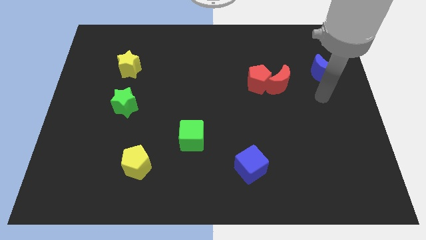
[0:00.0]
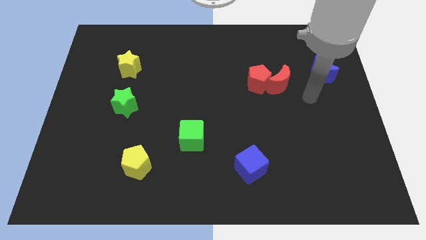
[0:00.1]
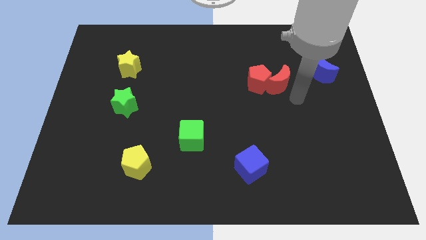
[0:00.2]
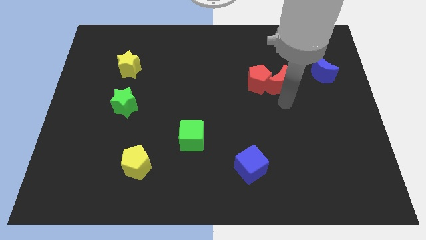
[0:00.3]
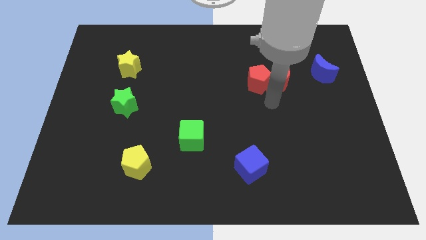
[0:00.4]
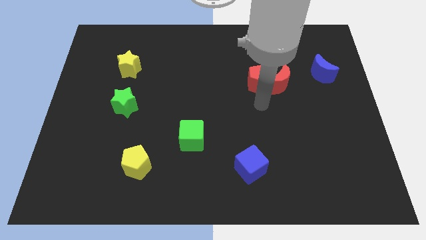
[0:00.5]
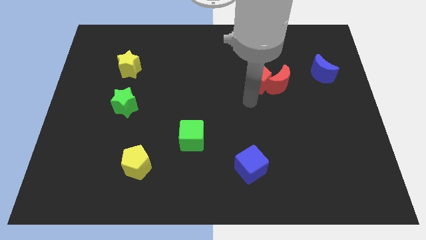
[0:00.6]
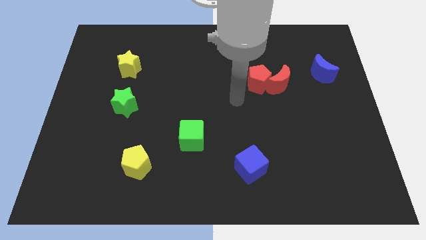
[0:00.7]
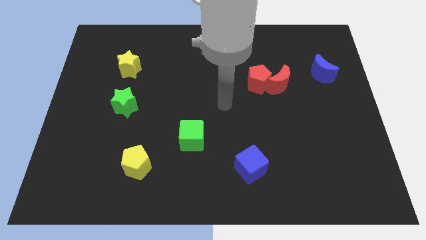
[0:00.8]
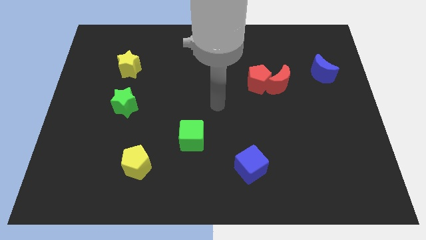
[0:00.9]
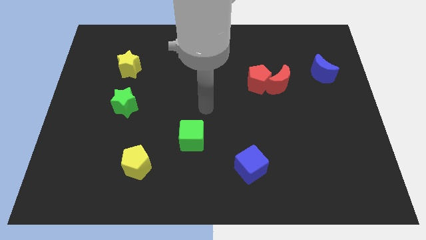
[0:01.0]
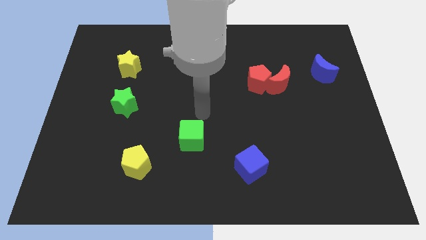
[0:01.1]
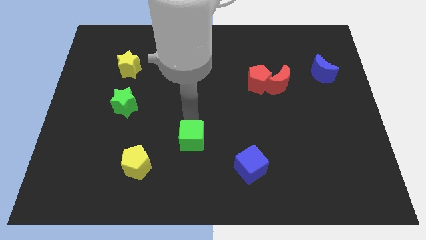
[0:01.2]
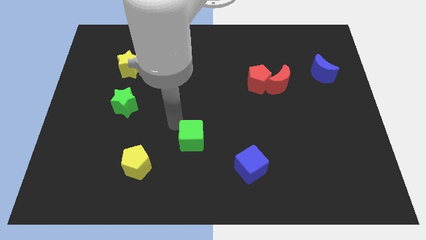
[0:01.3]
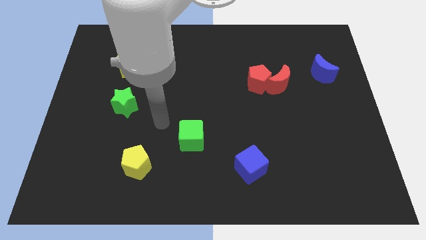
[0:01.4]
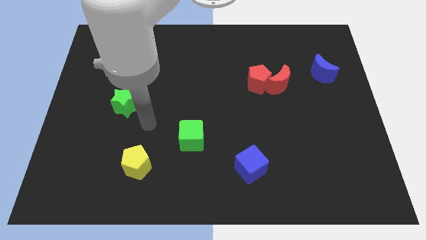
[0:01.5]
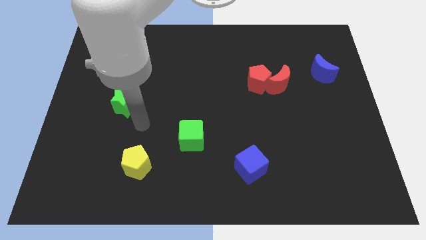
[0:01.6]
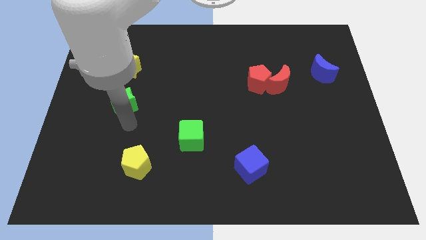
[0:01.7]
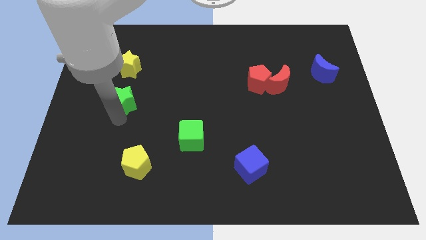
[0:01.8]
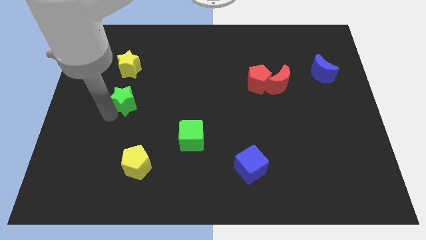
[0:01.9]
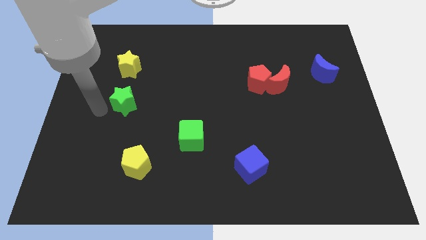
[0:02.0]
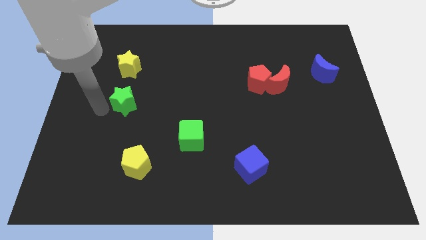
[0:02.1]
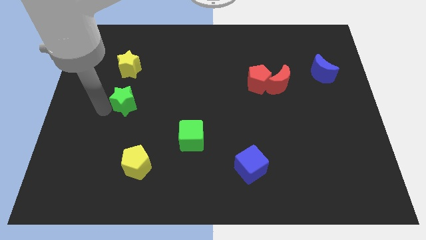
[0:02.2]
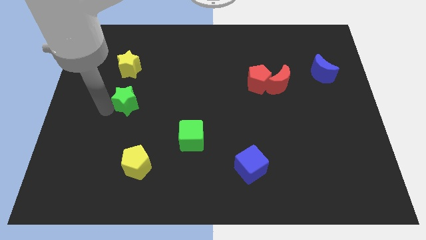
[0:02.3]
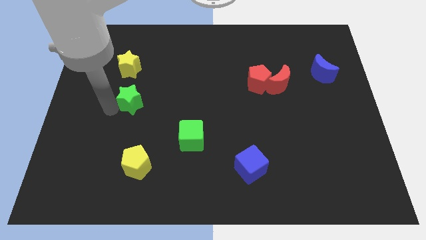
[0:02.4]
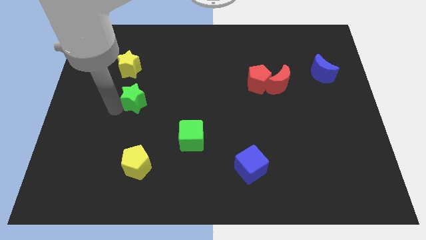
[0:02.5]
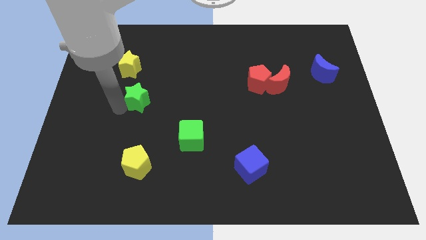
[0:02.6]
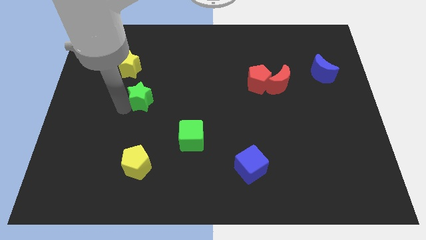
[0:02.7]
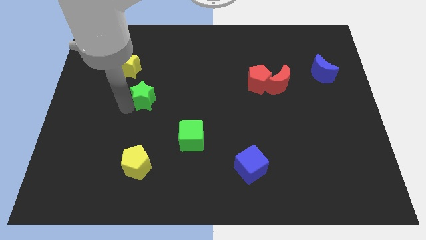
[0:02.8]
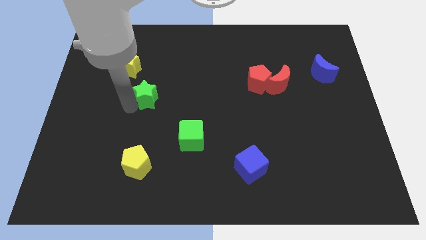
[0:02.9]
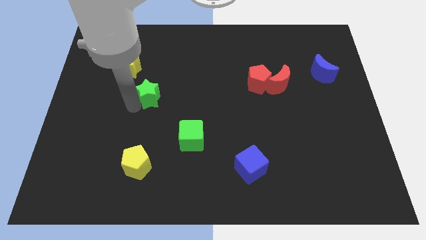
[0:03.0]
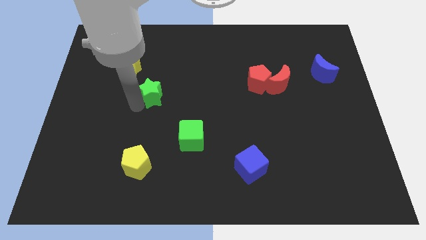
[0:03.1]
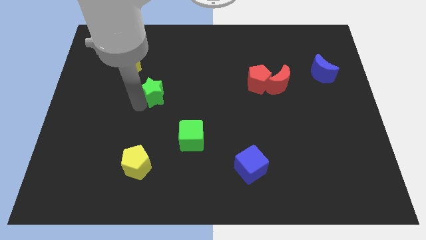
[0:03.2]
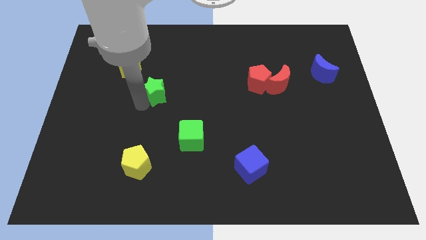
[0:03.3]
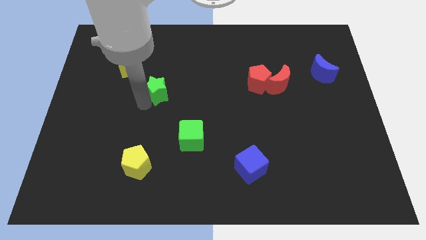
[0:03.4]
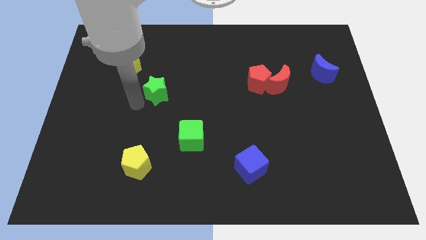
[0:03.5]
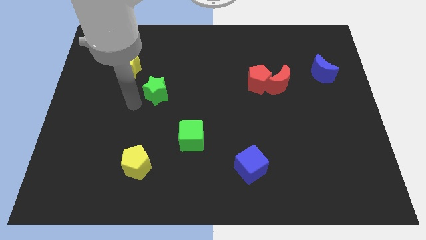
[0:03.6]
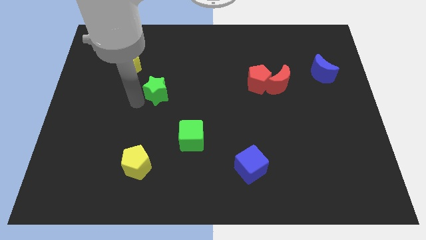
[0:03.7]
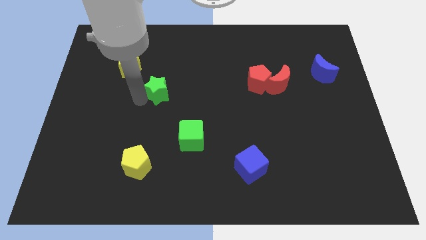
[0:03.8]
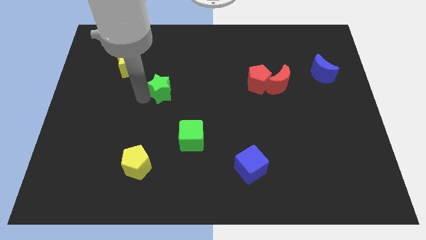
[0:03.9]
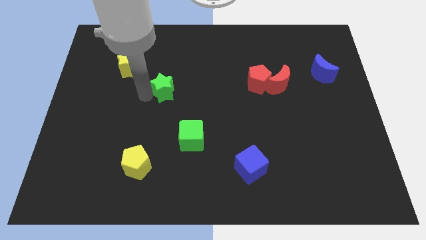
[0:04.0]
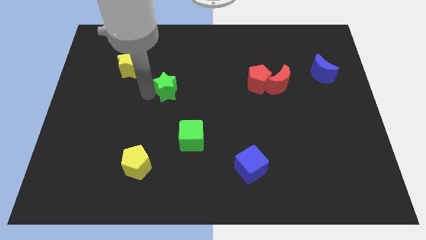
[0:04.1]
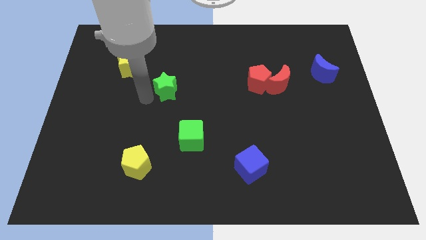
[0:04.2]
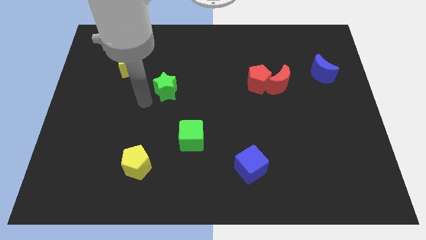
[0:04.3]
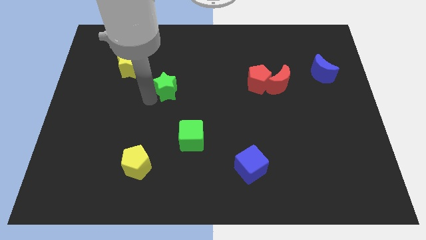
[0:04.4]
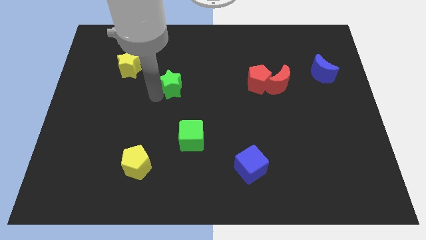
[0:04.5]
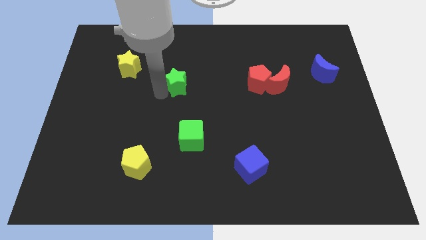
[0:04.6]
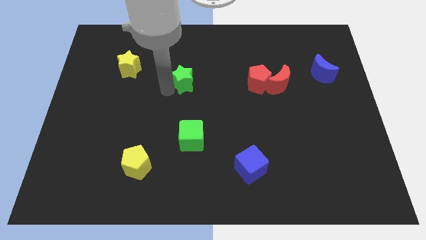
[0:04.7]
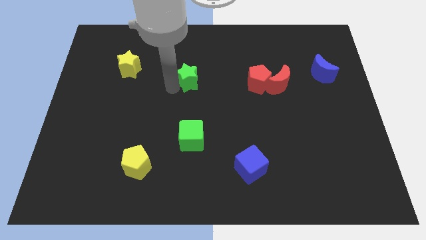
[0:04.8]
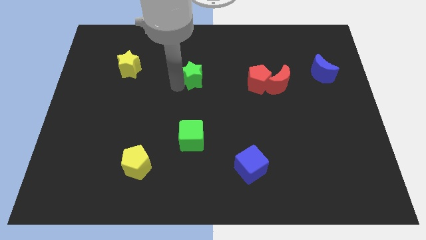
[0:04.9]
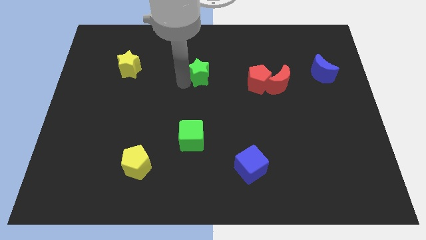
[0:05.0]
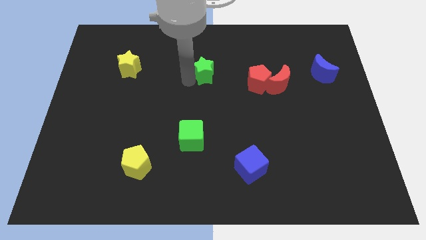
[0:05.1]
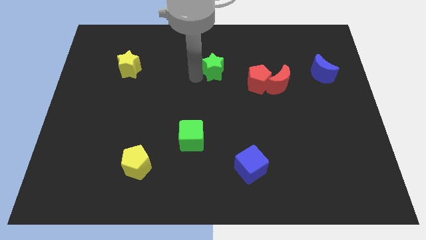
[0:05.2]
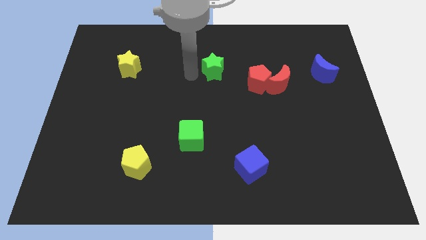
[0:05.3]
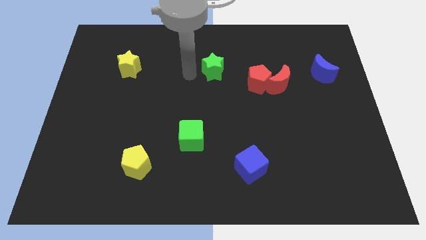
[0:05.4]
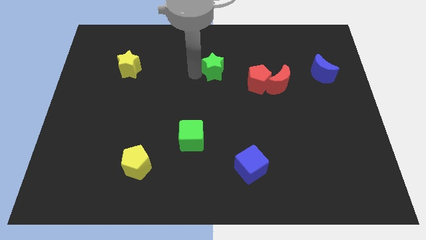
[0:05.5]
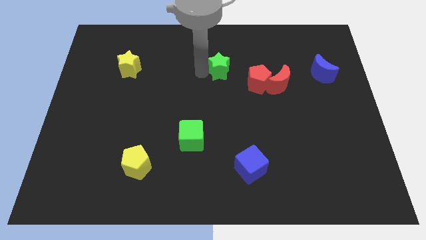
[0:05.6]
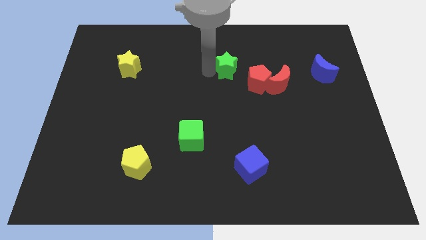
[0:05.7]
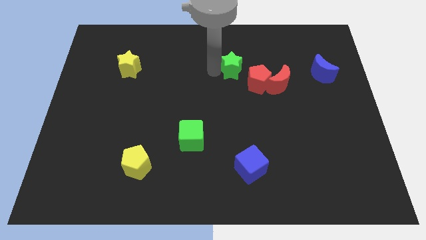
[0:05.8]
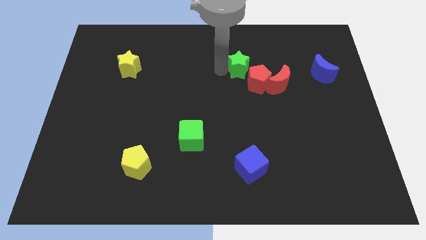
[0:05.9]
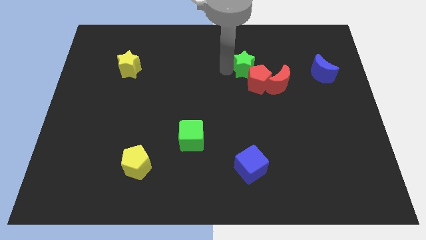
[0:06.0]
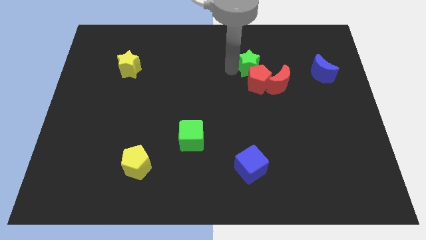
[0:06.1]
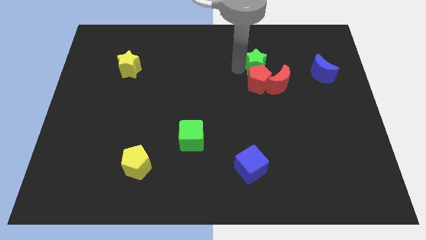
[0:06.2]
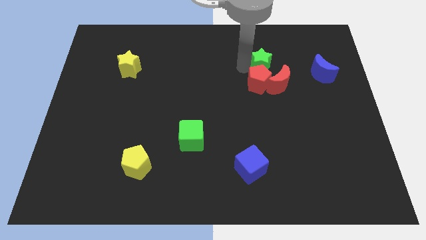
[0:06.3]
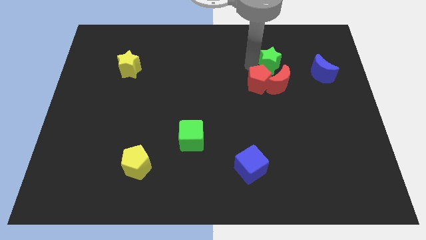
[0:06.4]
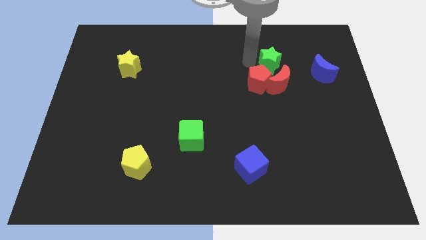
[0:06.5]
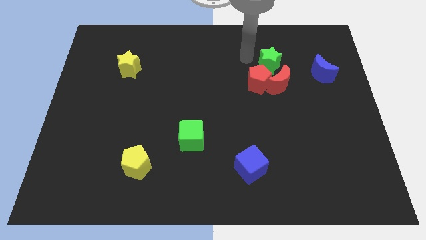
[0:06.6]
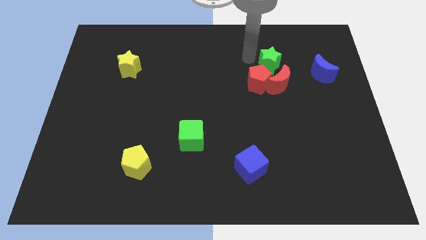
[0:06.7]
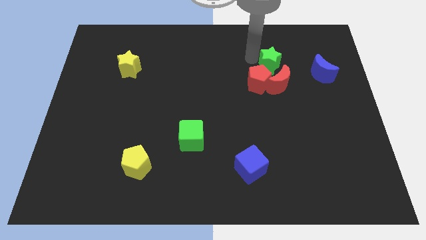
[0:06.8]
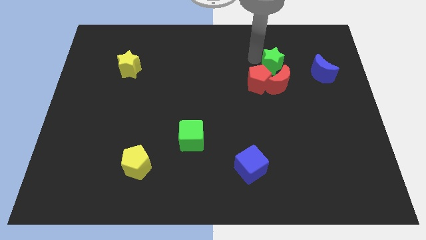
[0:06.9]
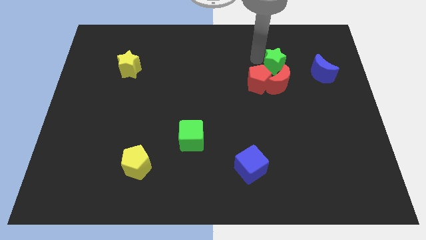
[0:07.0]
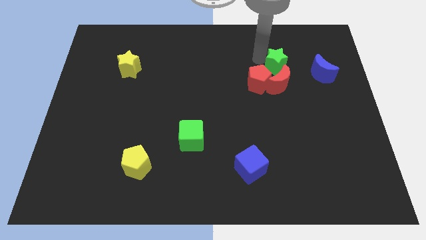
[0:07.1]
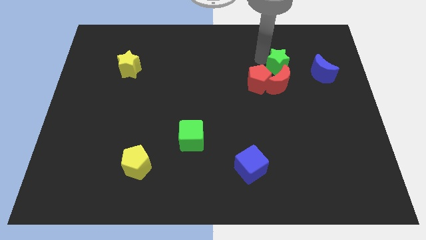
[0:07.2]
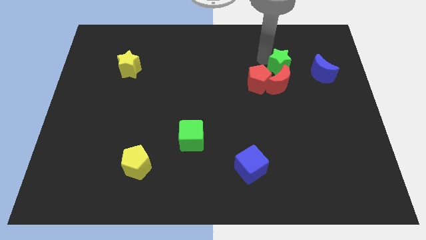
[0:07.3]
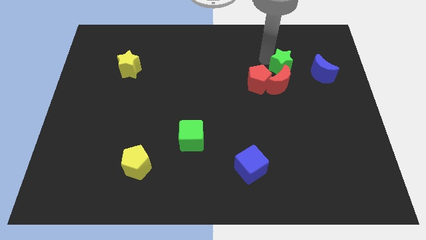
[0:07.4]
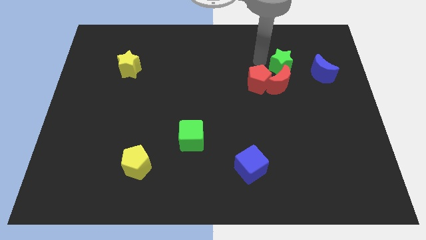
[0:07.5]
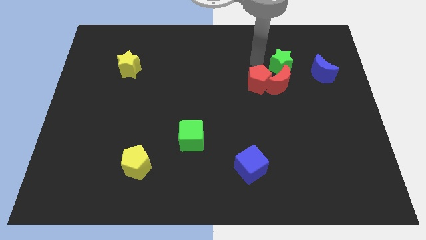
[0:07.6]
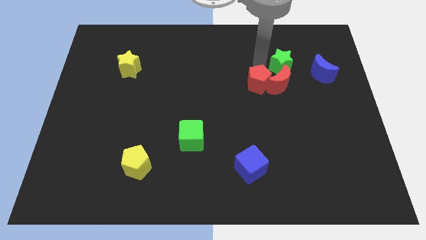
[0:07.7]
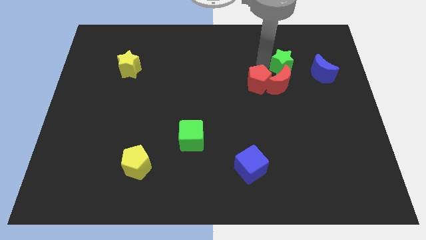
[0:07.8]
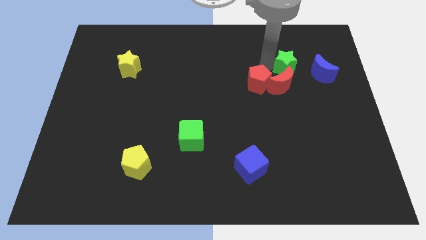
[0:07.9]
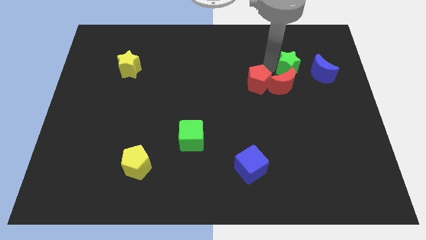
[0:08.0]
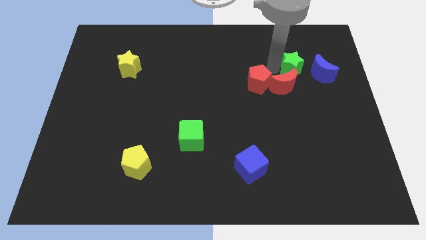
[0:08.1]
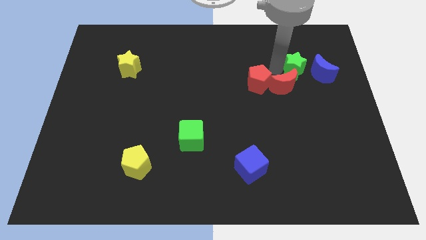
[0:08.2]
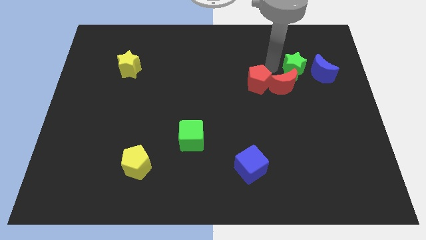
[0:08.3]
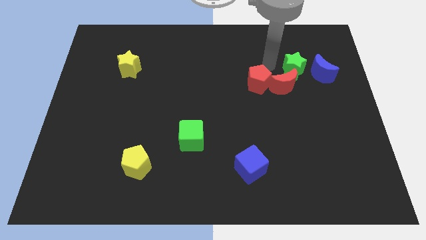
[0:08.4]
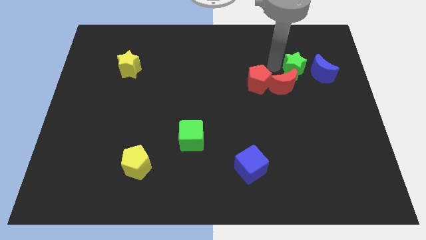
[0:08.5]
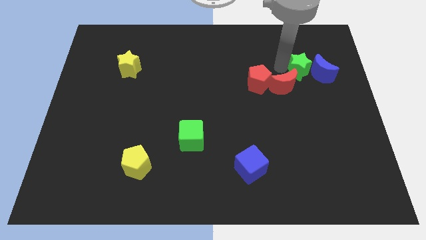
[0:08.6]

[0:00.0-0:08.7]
move the green star to the blue moon
